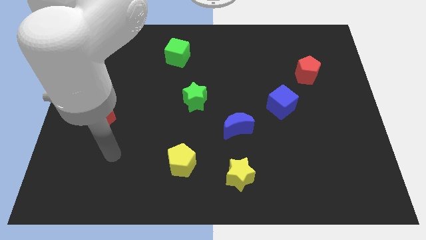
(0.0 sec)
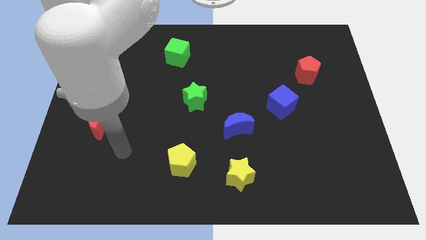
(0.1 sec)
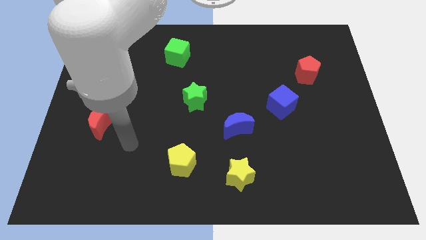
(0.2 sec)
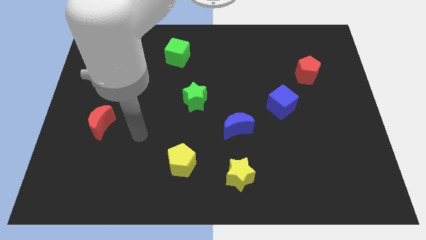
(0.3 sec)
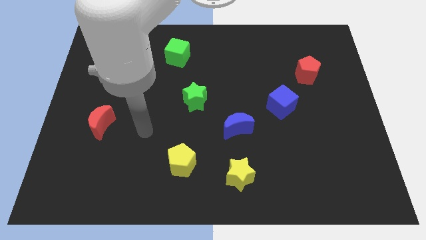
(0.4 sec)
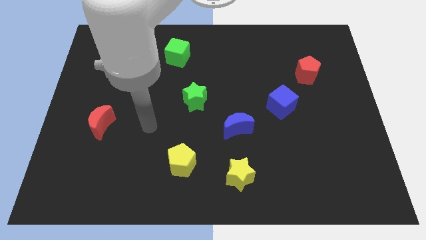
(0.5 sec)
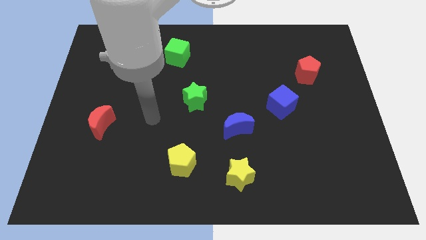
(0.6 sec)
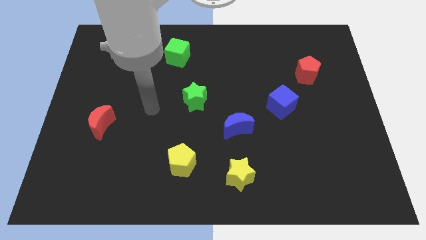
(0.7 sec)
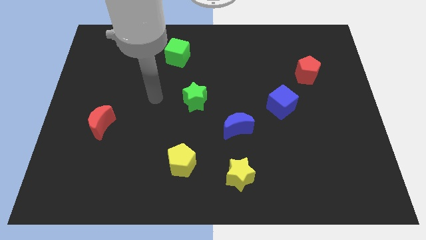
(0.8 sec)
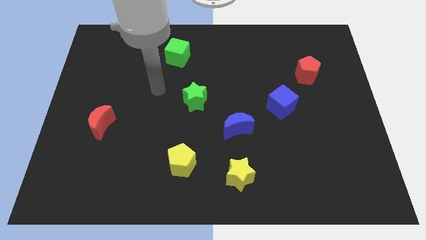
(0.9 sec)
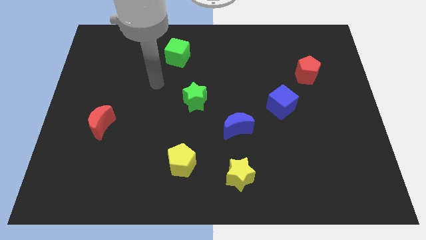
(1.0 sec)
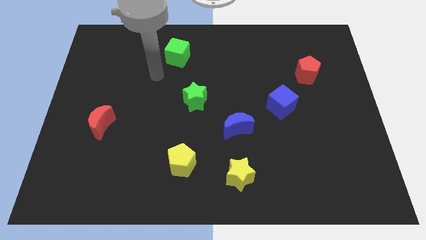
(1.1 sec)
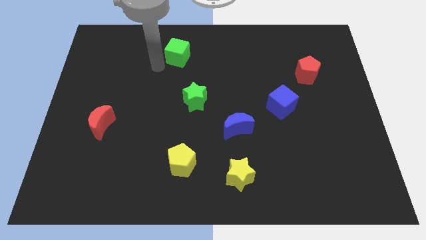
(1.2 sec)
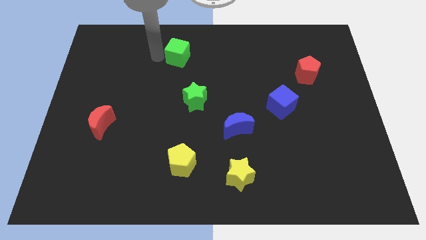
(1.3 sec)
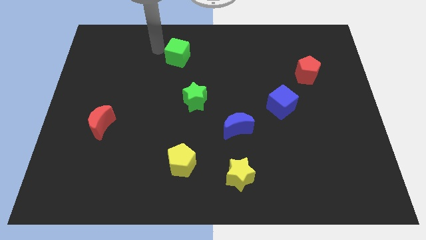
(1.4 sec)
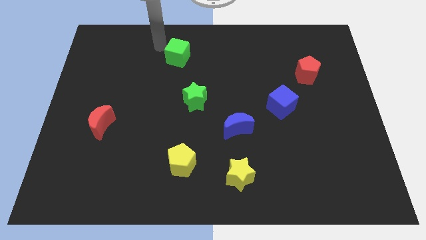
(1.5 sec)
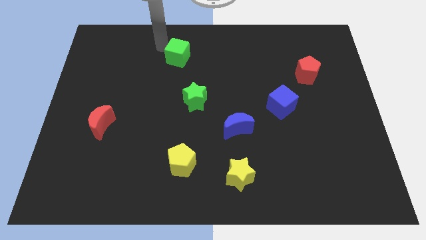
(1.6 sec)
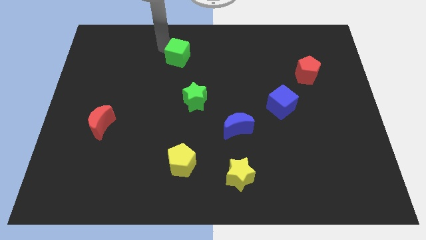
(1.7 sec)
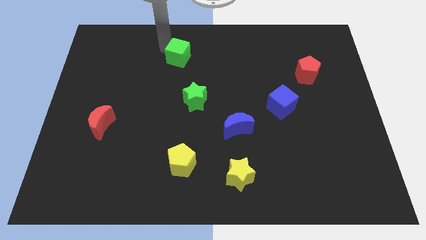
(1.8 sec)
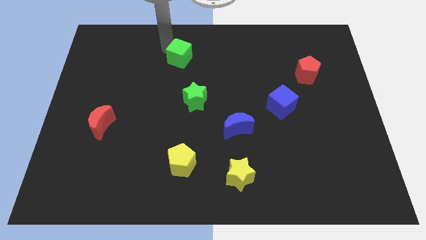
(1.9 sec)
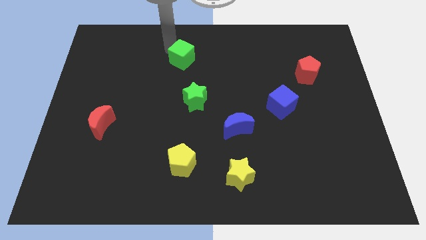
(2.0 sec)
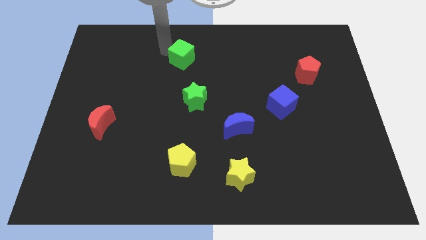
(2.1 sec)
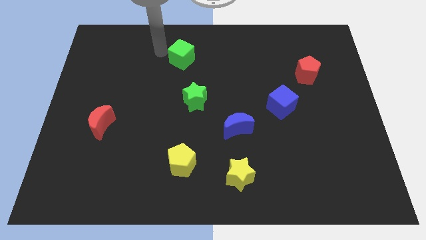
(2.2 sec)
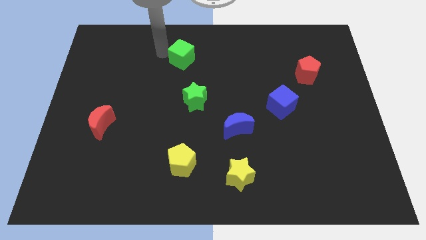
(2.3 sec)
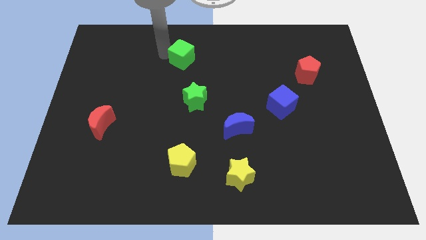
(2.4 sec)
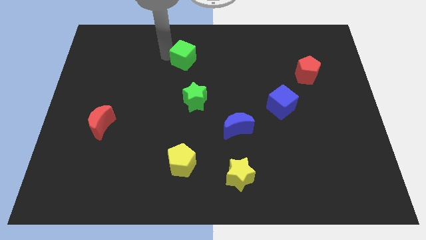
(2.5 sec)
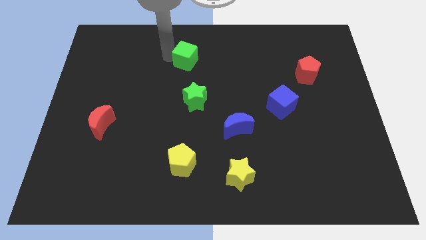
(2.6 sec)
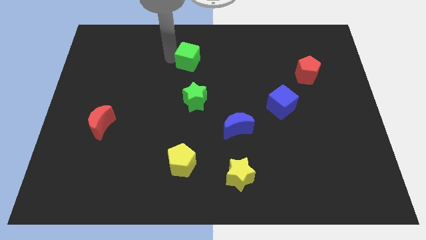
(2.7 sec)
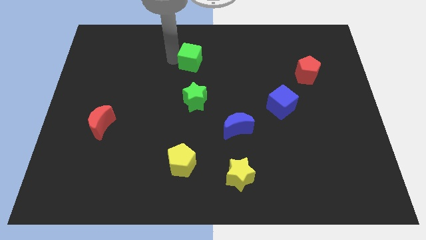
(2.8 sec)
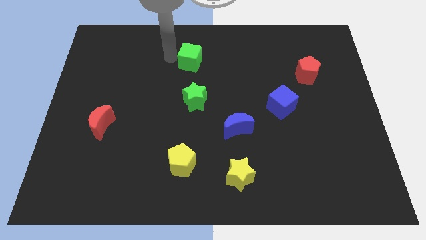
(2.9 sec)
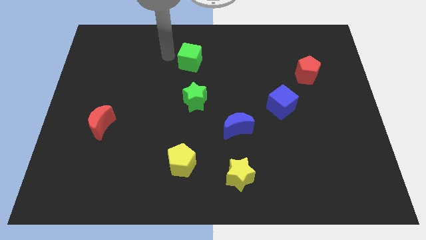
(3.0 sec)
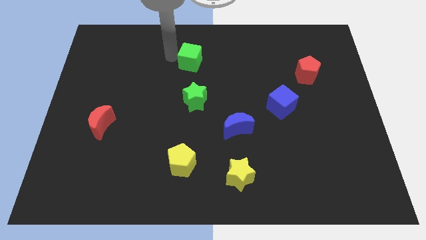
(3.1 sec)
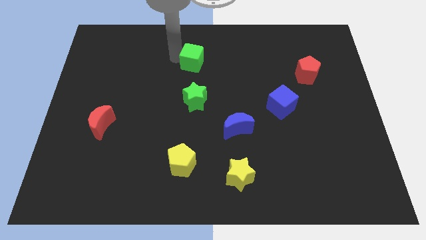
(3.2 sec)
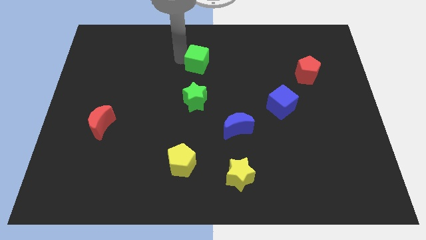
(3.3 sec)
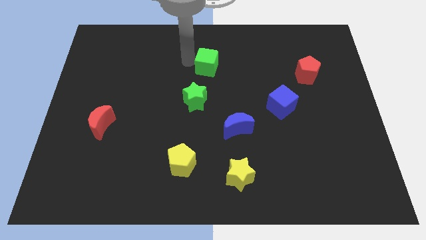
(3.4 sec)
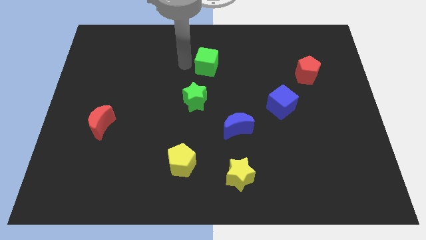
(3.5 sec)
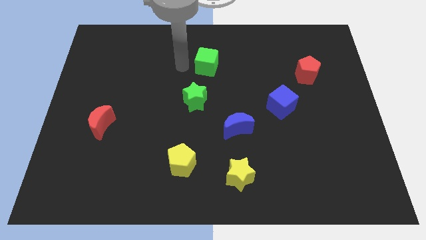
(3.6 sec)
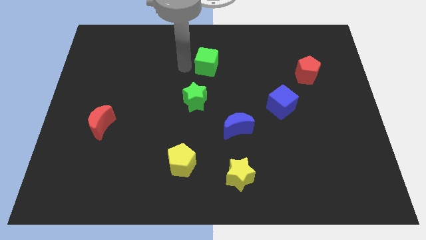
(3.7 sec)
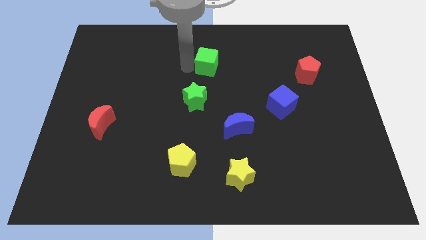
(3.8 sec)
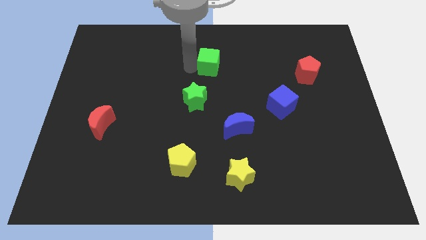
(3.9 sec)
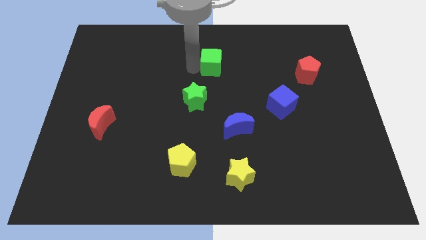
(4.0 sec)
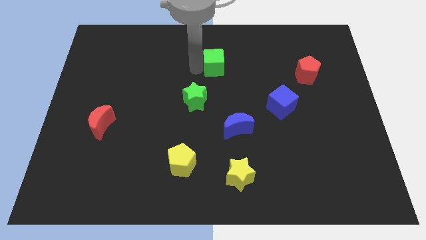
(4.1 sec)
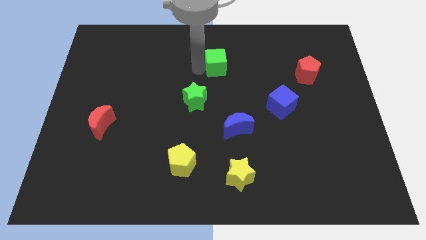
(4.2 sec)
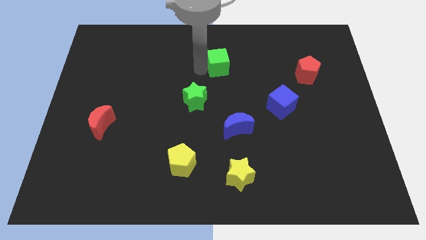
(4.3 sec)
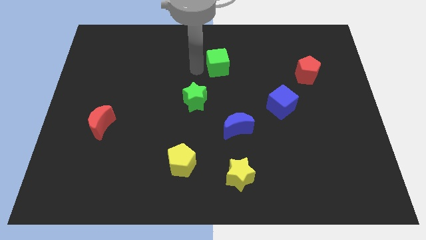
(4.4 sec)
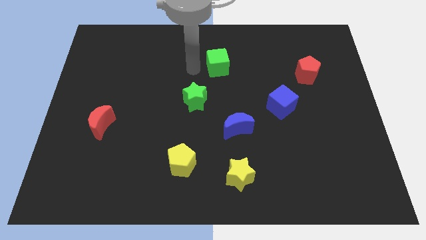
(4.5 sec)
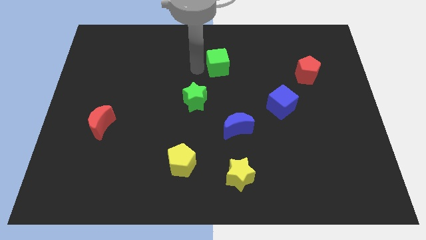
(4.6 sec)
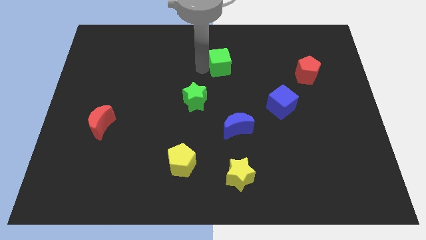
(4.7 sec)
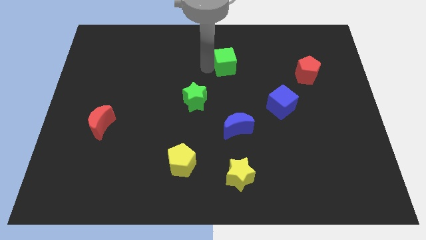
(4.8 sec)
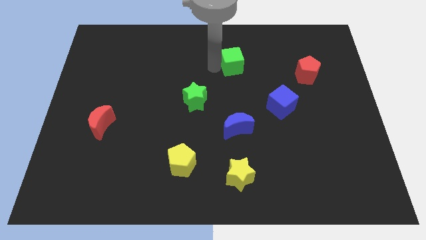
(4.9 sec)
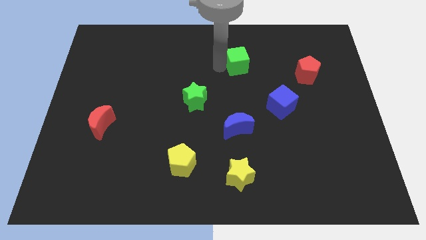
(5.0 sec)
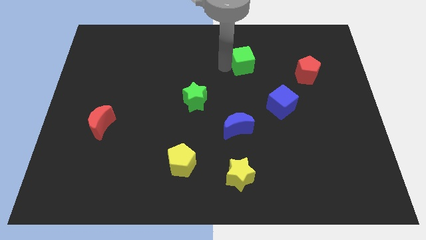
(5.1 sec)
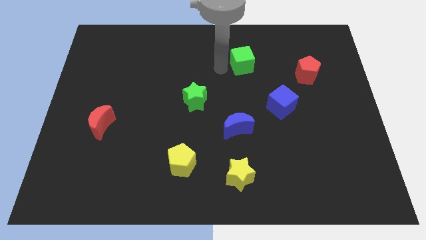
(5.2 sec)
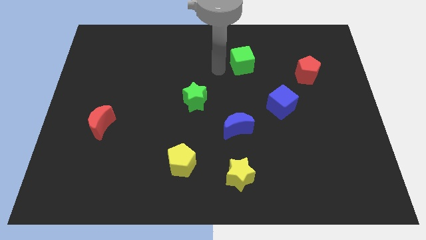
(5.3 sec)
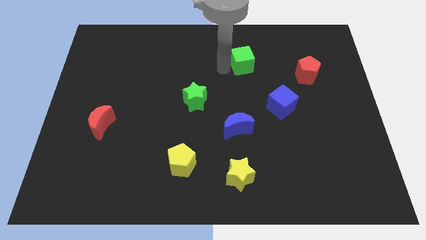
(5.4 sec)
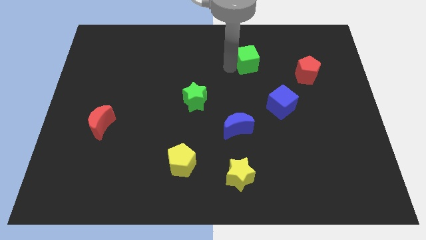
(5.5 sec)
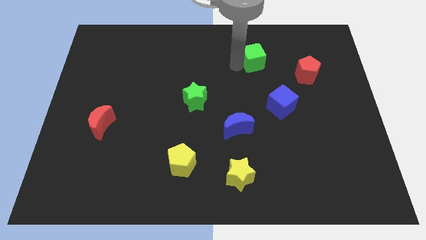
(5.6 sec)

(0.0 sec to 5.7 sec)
slide the green cube to the right

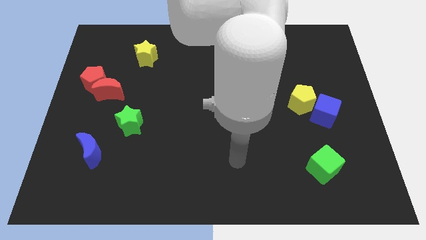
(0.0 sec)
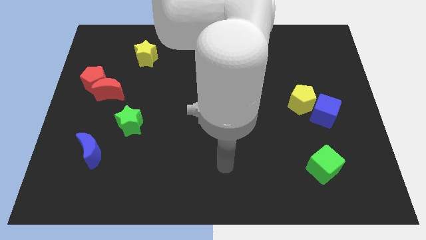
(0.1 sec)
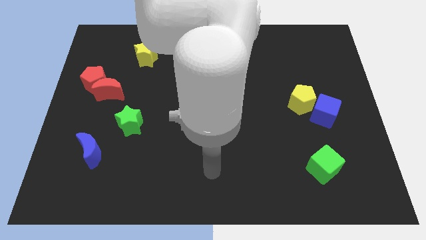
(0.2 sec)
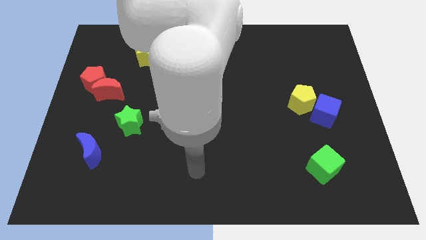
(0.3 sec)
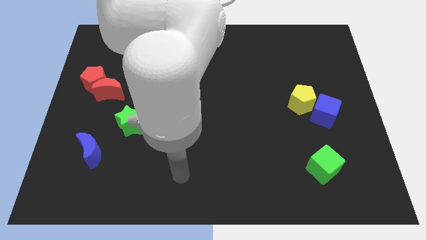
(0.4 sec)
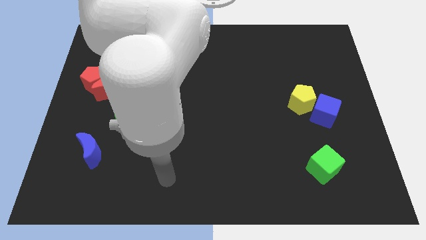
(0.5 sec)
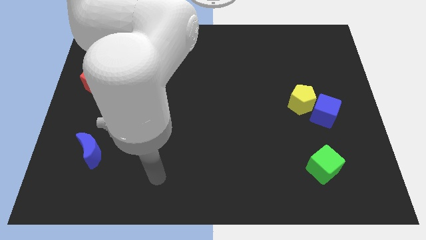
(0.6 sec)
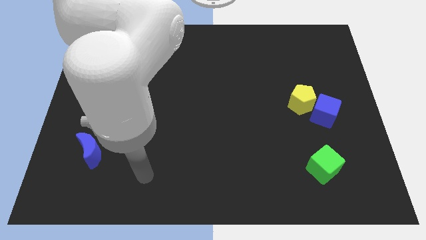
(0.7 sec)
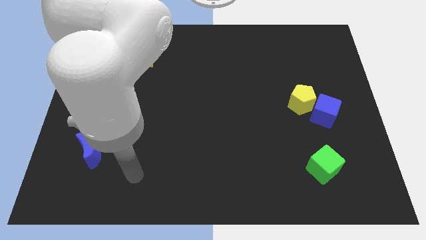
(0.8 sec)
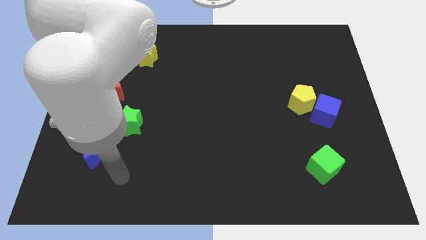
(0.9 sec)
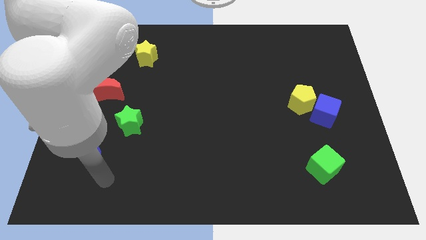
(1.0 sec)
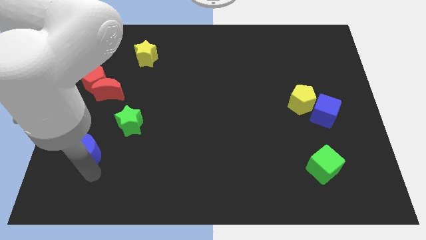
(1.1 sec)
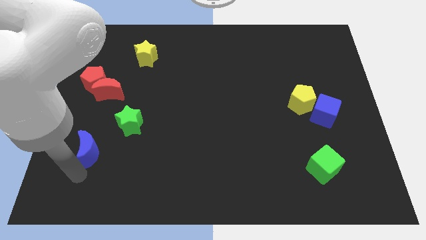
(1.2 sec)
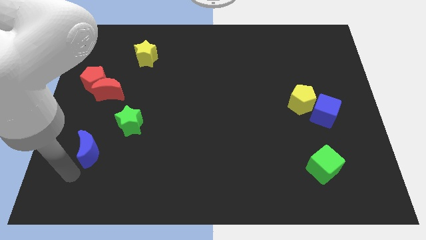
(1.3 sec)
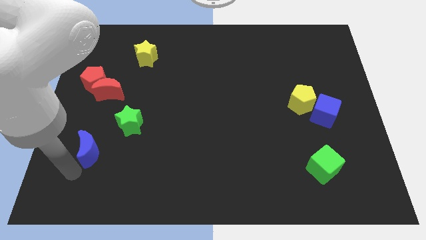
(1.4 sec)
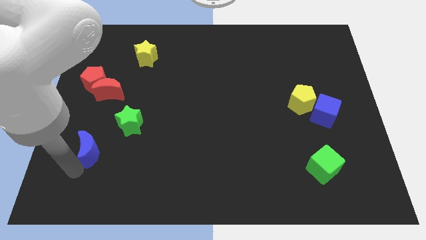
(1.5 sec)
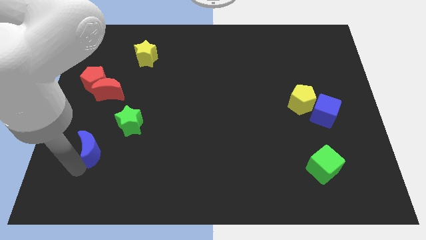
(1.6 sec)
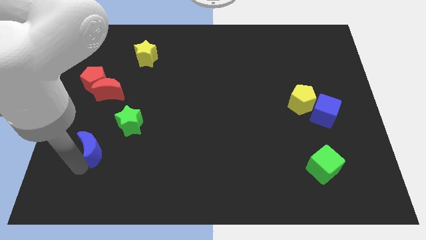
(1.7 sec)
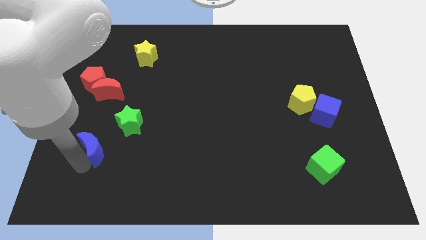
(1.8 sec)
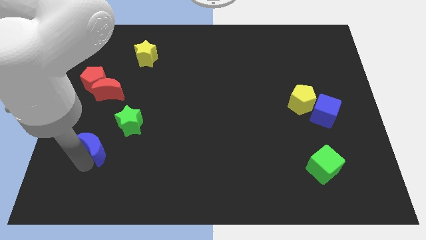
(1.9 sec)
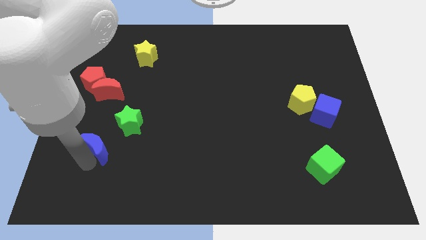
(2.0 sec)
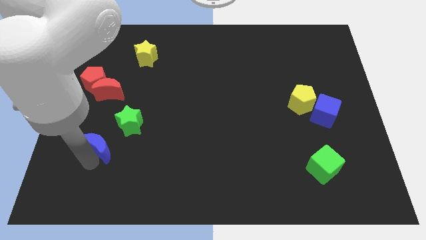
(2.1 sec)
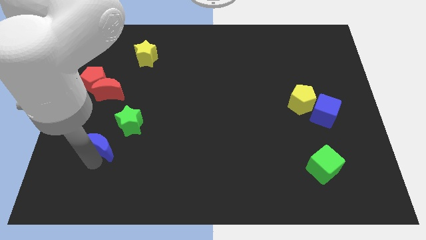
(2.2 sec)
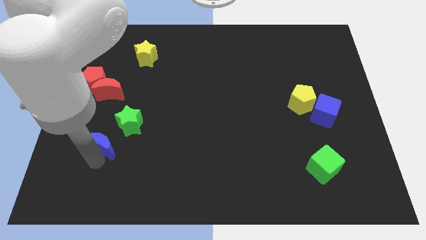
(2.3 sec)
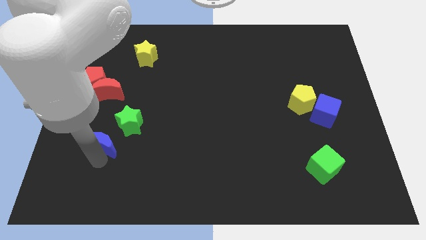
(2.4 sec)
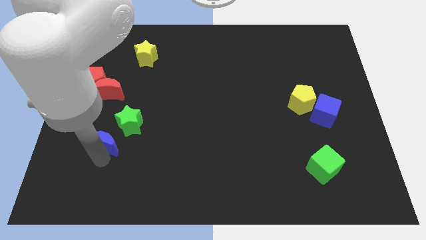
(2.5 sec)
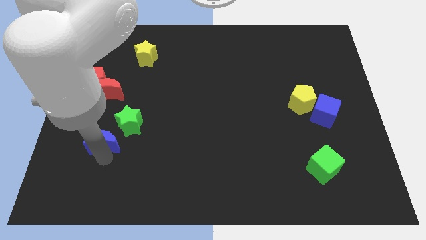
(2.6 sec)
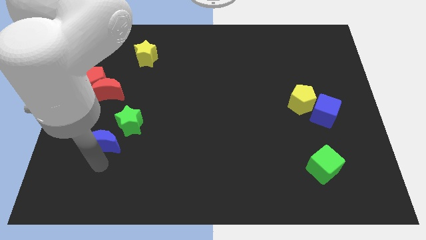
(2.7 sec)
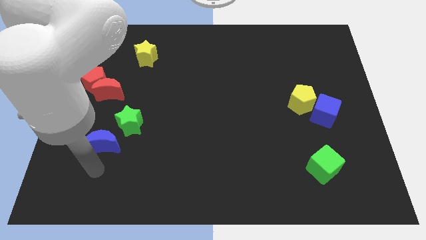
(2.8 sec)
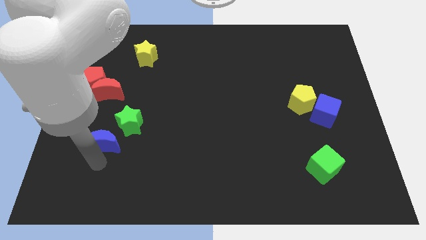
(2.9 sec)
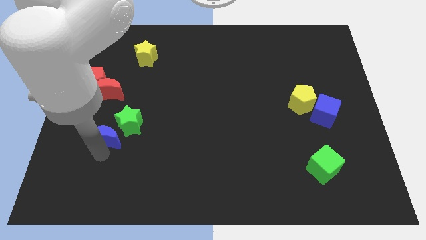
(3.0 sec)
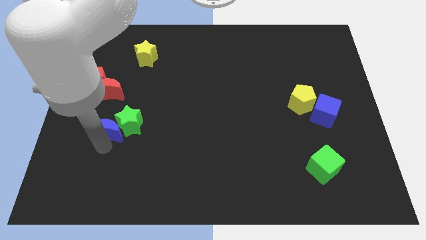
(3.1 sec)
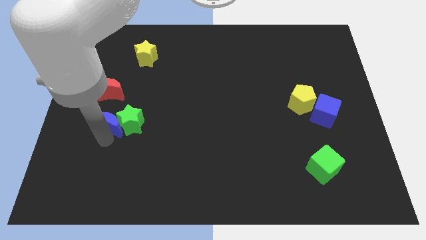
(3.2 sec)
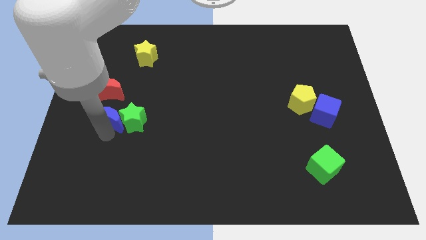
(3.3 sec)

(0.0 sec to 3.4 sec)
slide the blue moon upwards and right diagonally somewhat
